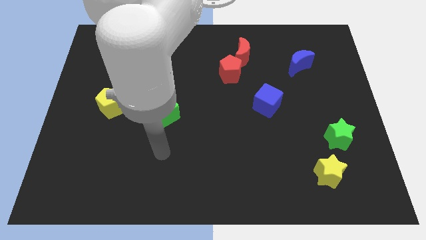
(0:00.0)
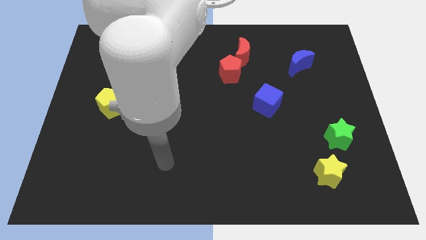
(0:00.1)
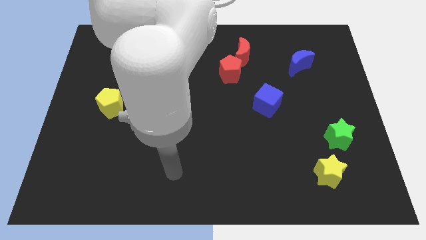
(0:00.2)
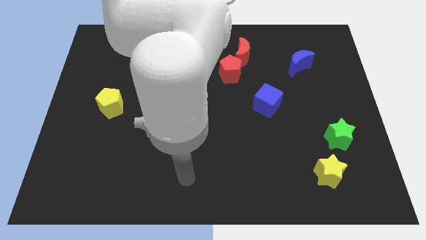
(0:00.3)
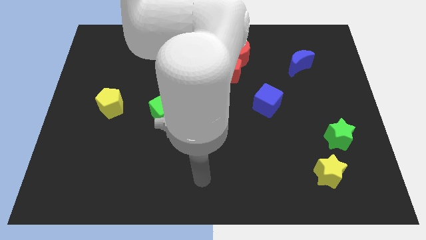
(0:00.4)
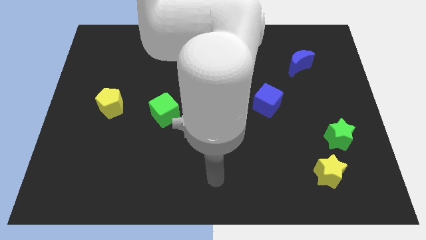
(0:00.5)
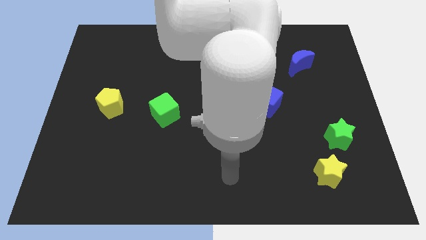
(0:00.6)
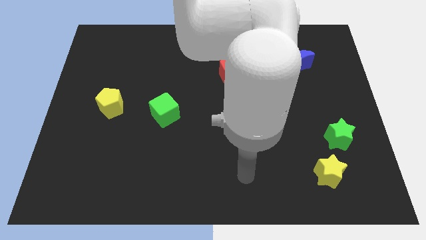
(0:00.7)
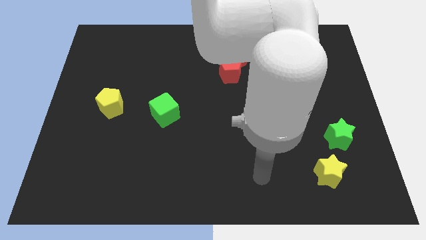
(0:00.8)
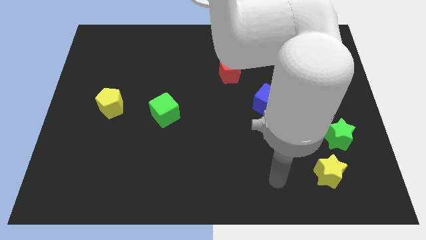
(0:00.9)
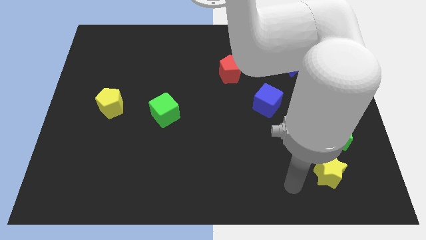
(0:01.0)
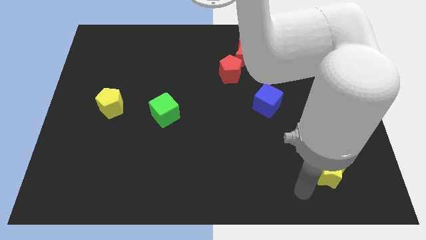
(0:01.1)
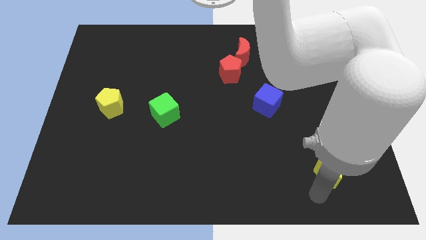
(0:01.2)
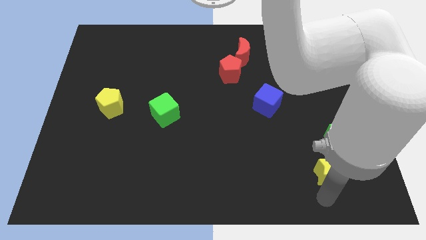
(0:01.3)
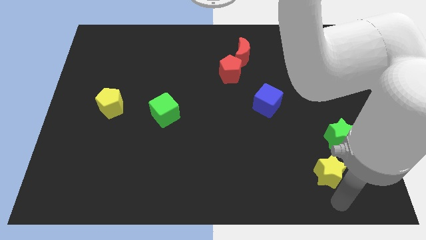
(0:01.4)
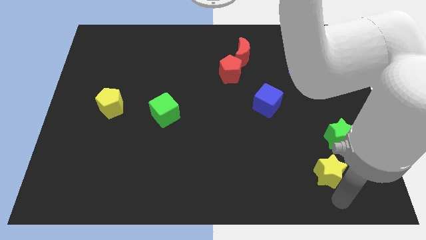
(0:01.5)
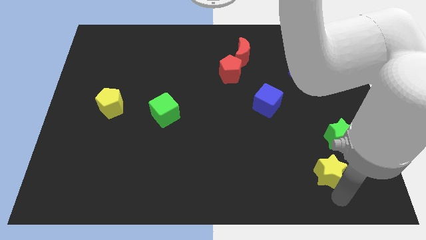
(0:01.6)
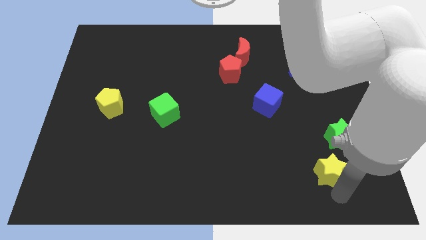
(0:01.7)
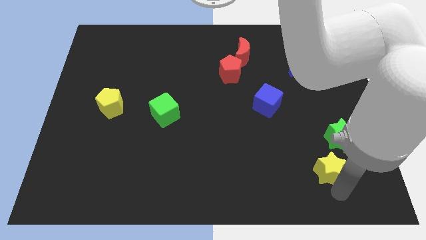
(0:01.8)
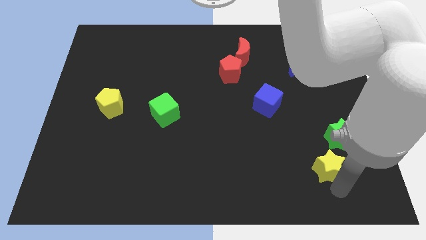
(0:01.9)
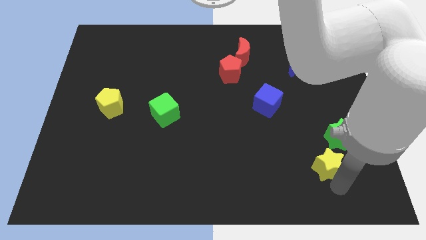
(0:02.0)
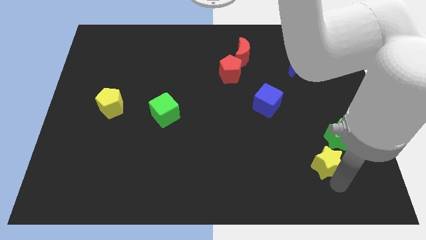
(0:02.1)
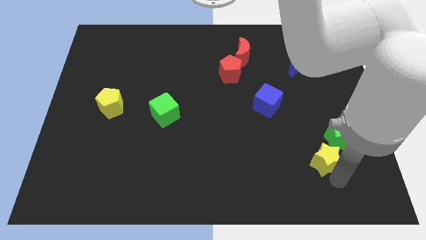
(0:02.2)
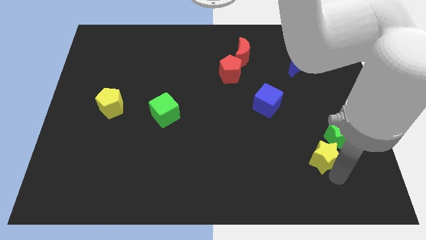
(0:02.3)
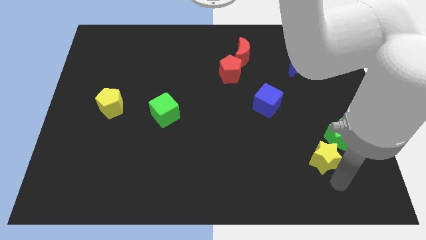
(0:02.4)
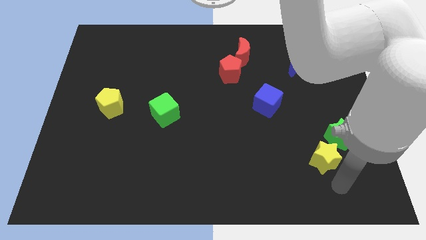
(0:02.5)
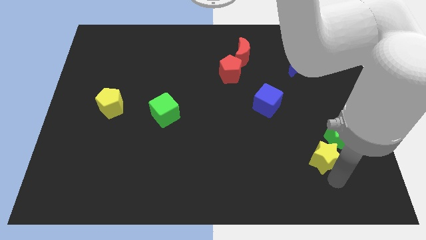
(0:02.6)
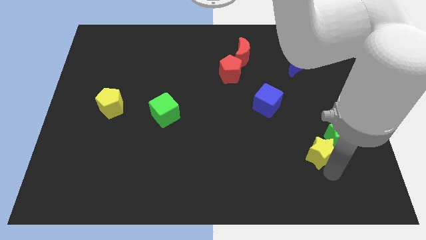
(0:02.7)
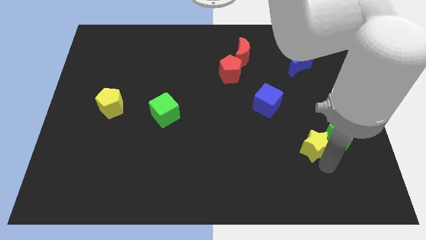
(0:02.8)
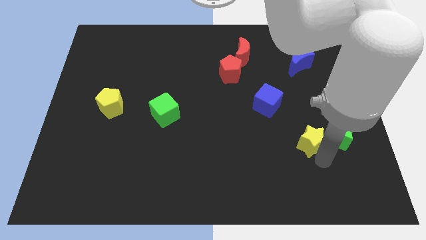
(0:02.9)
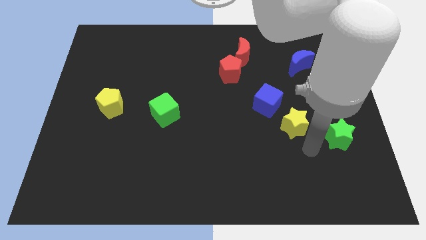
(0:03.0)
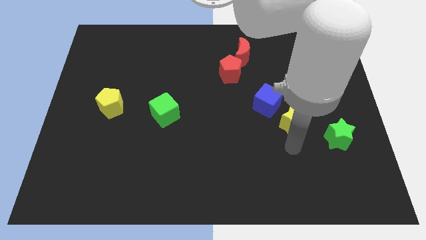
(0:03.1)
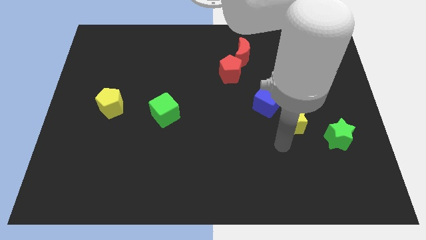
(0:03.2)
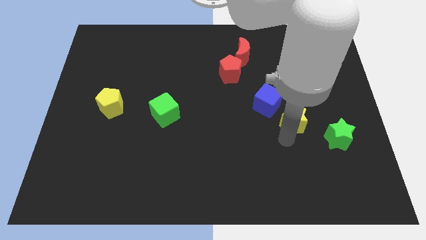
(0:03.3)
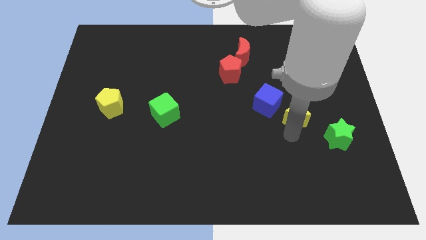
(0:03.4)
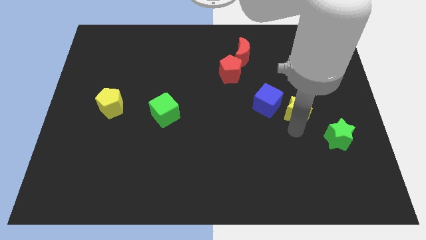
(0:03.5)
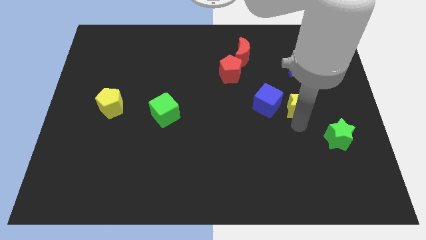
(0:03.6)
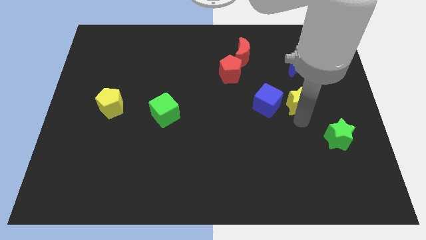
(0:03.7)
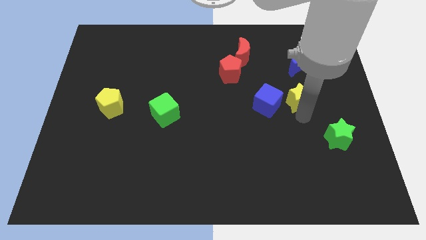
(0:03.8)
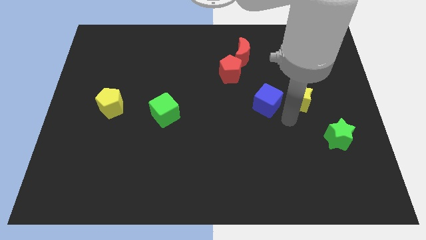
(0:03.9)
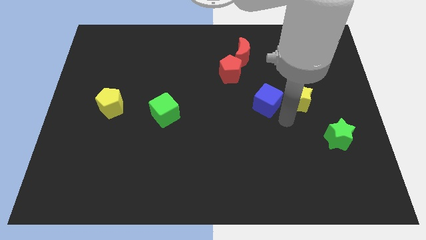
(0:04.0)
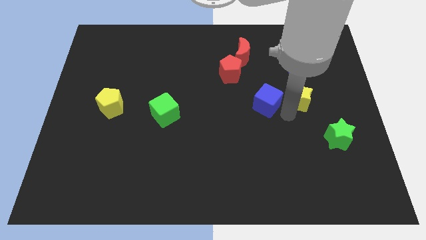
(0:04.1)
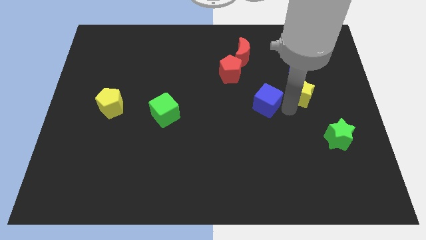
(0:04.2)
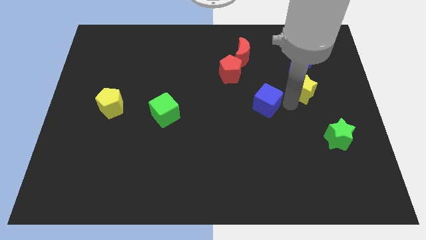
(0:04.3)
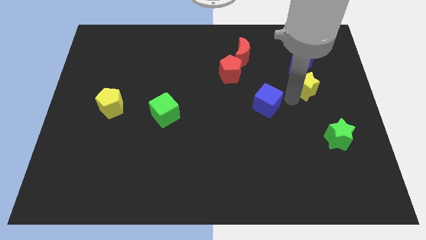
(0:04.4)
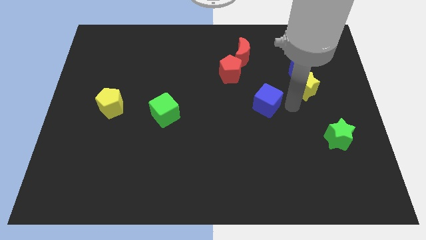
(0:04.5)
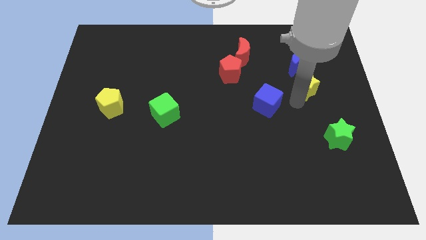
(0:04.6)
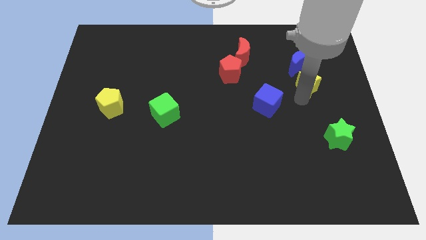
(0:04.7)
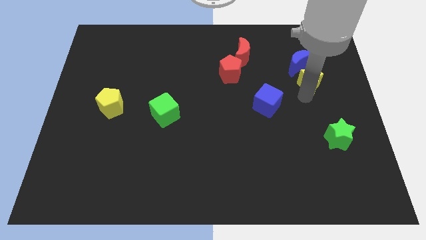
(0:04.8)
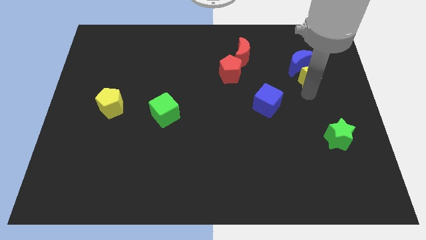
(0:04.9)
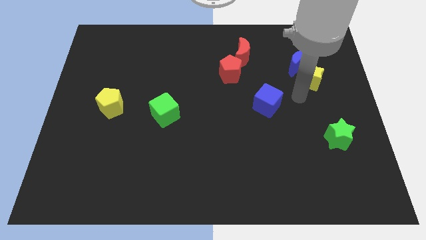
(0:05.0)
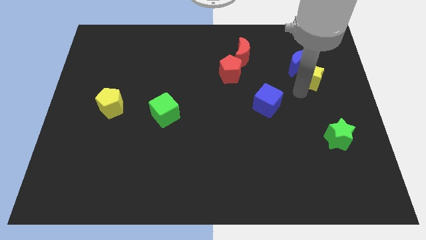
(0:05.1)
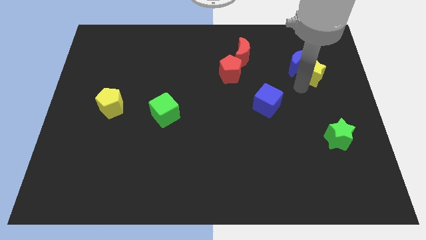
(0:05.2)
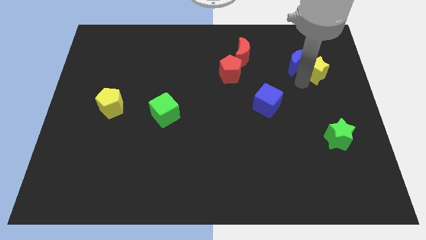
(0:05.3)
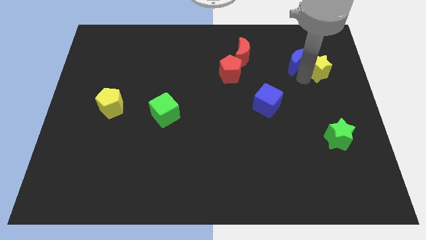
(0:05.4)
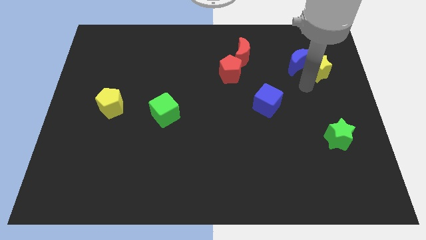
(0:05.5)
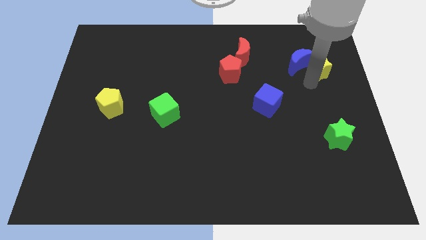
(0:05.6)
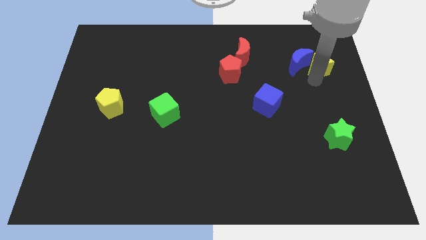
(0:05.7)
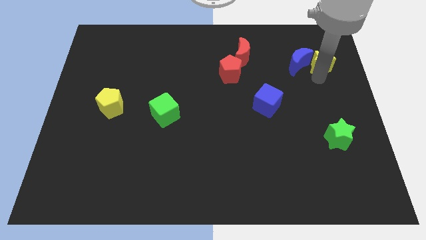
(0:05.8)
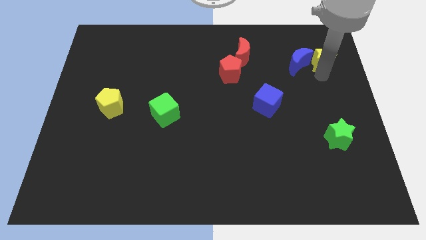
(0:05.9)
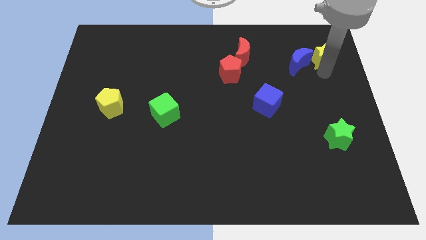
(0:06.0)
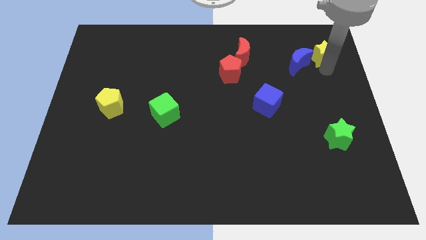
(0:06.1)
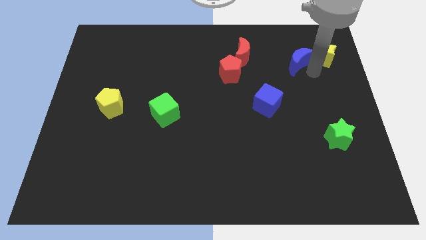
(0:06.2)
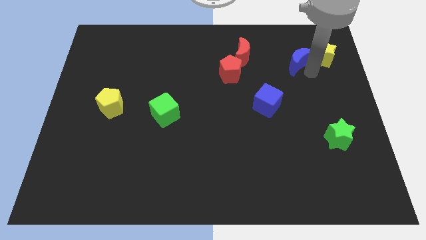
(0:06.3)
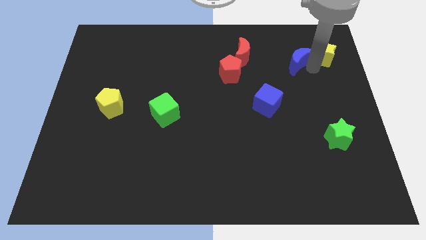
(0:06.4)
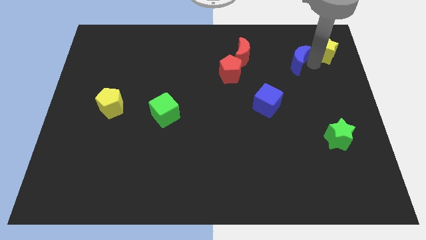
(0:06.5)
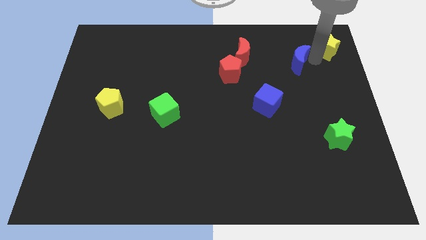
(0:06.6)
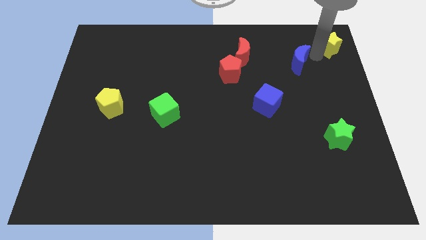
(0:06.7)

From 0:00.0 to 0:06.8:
move the yellow star to the top right corner

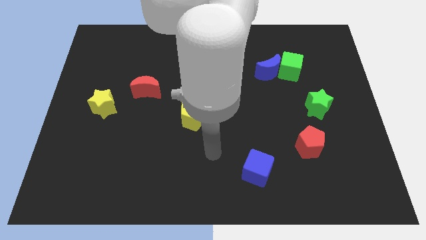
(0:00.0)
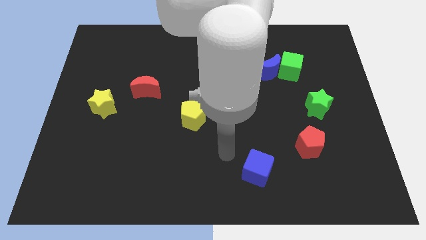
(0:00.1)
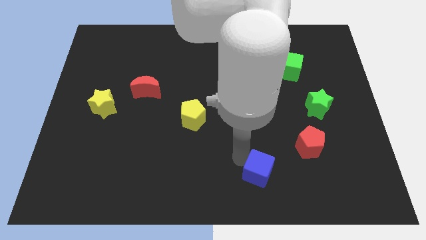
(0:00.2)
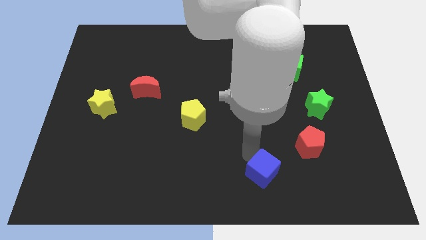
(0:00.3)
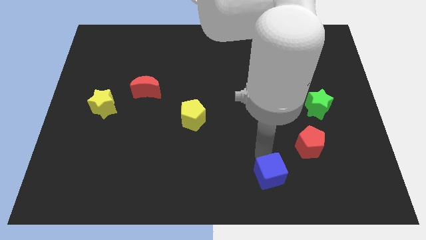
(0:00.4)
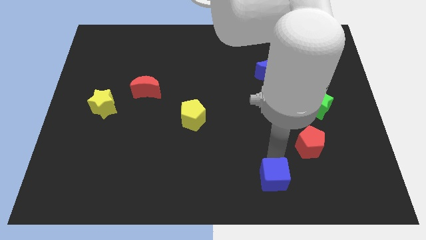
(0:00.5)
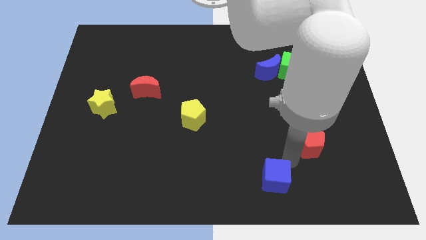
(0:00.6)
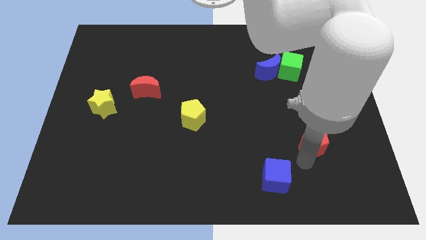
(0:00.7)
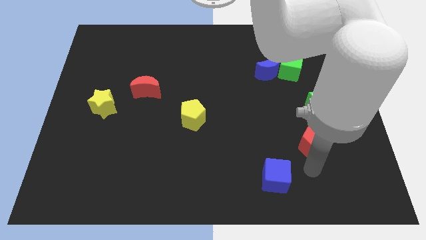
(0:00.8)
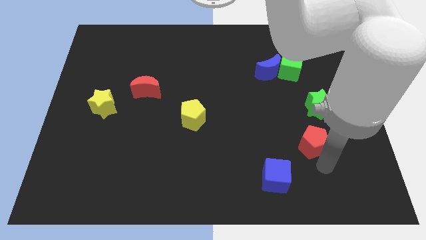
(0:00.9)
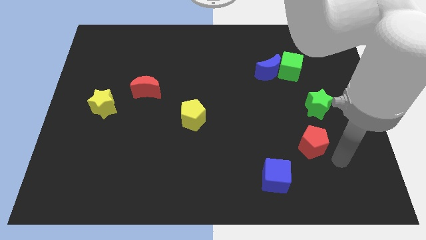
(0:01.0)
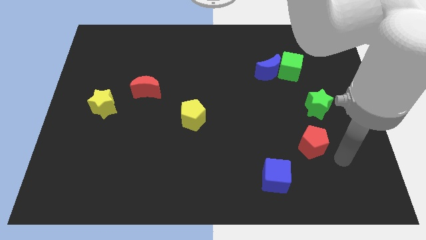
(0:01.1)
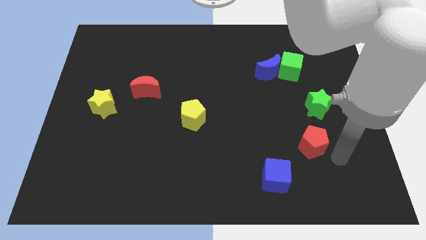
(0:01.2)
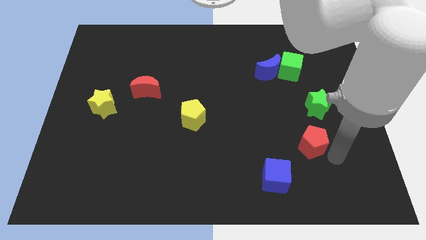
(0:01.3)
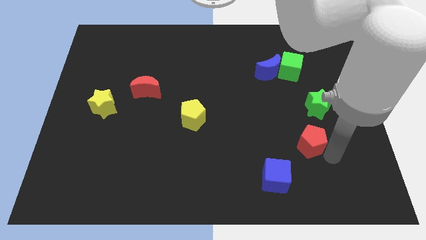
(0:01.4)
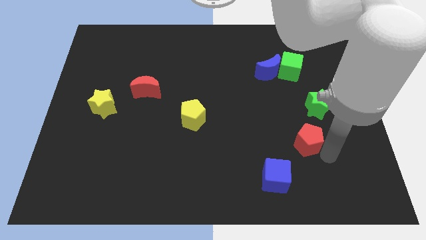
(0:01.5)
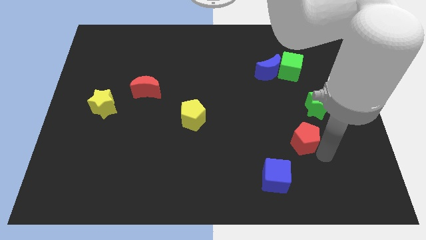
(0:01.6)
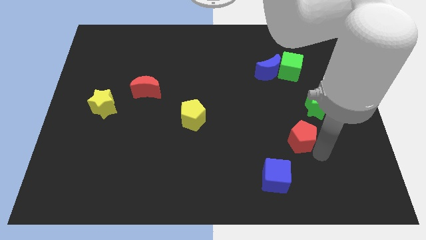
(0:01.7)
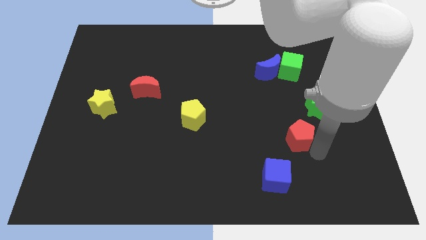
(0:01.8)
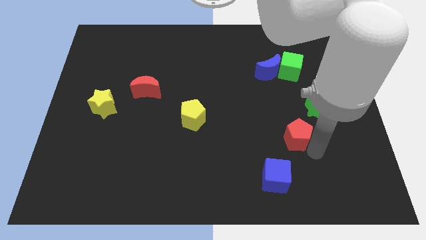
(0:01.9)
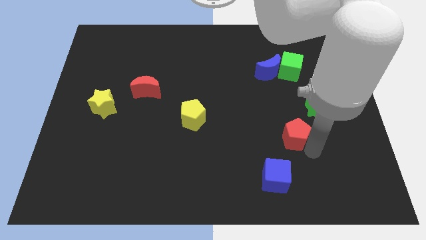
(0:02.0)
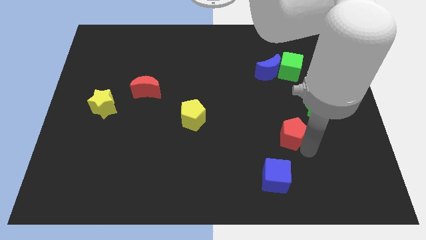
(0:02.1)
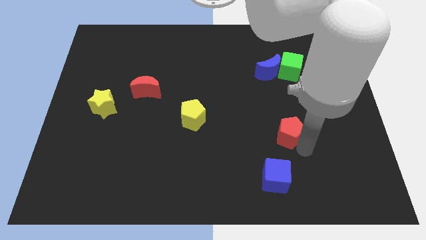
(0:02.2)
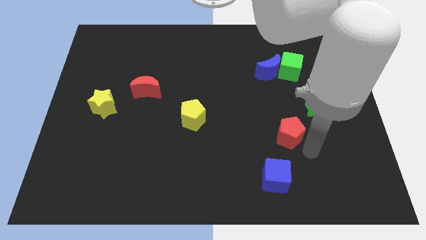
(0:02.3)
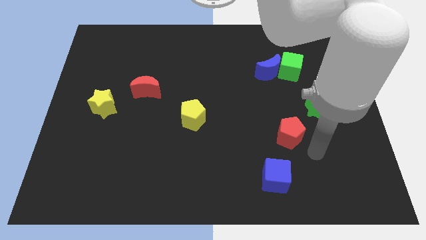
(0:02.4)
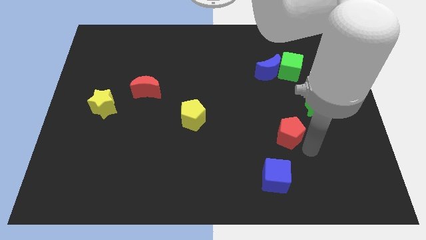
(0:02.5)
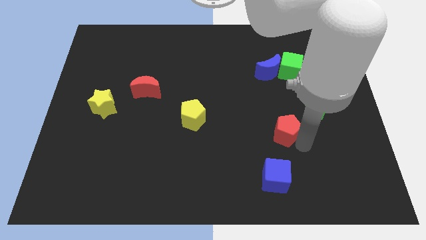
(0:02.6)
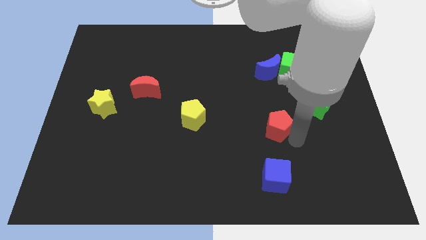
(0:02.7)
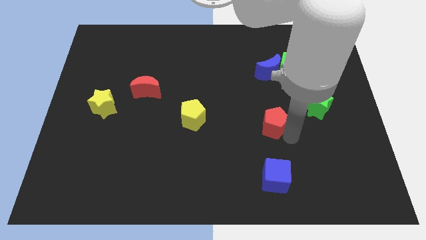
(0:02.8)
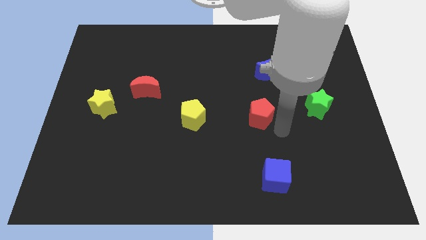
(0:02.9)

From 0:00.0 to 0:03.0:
slide the red pentagon to the center
